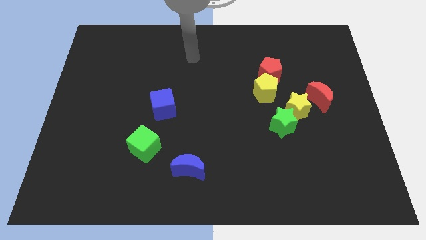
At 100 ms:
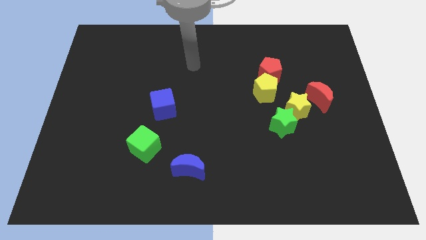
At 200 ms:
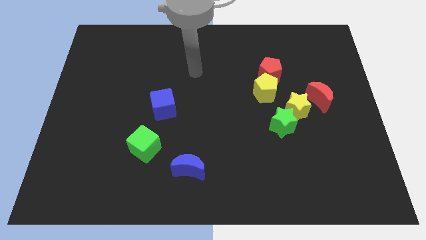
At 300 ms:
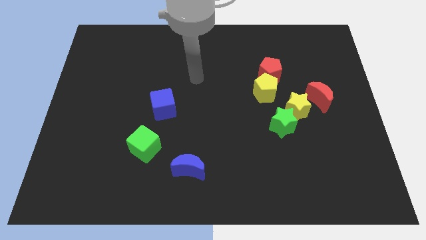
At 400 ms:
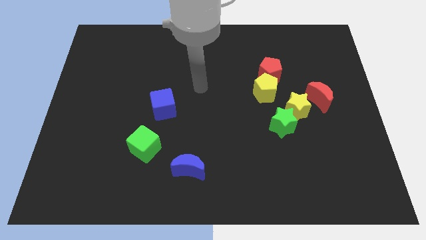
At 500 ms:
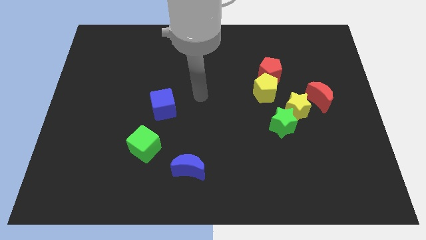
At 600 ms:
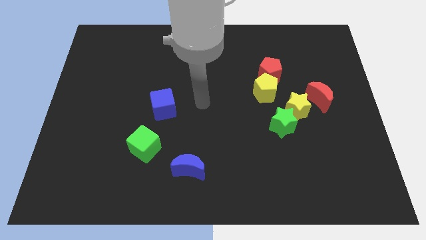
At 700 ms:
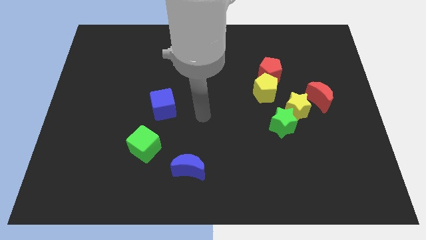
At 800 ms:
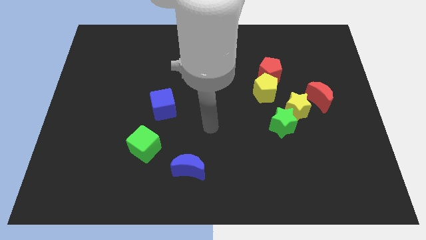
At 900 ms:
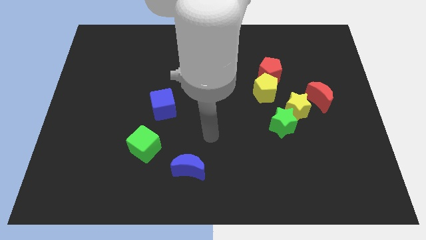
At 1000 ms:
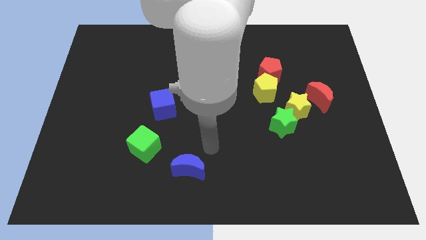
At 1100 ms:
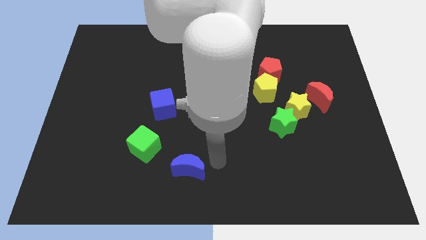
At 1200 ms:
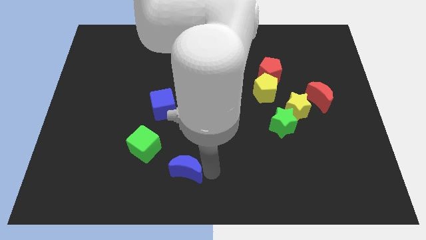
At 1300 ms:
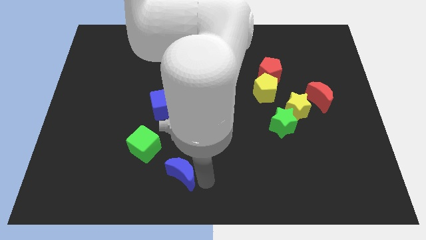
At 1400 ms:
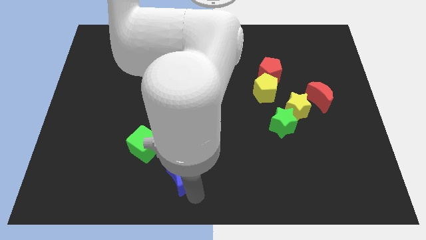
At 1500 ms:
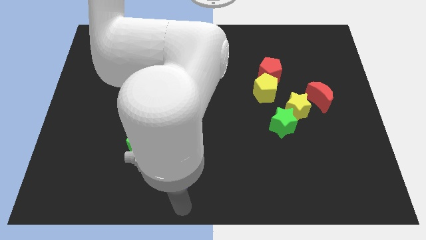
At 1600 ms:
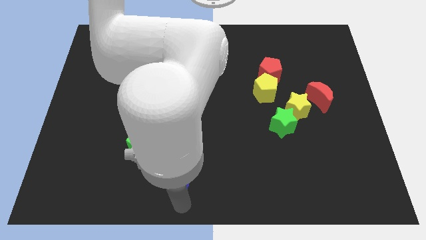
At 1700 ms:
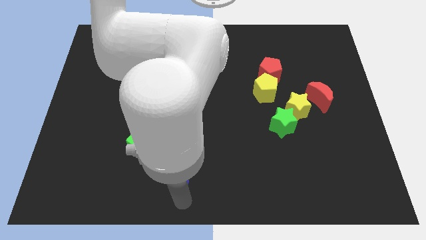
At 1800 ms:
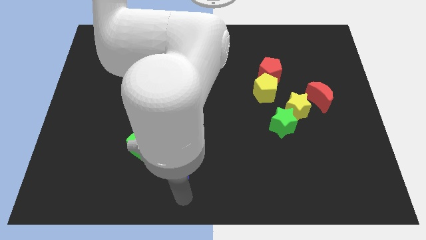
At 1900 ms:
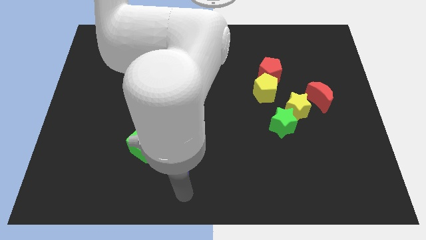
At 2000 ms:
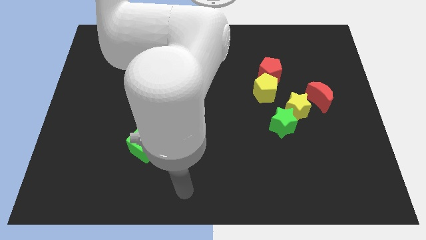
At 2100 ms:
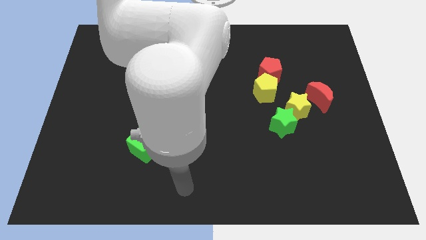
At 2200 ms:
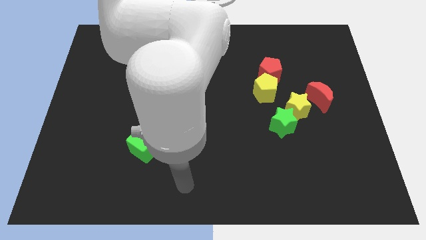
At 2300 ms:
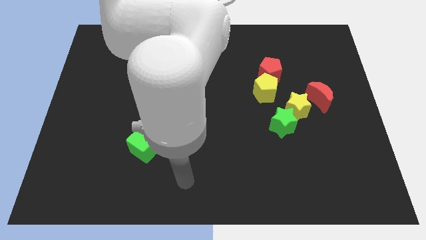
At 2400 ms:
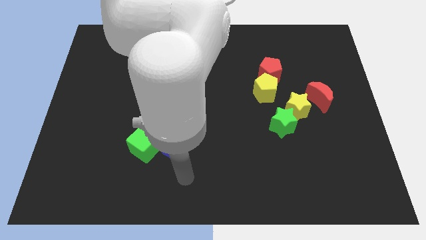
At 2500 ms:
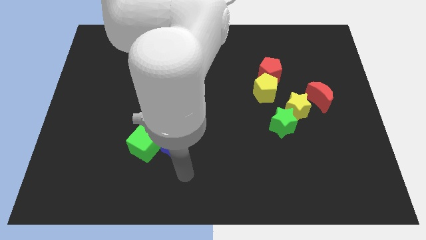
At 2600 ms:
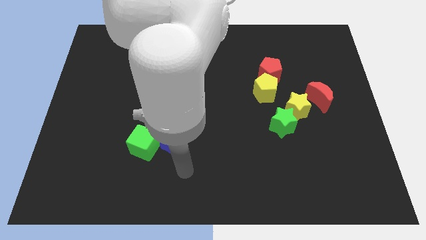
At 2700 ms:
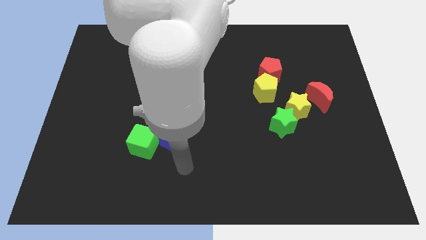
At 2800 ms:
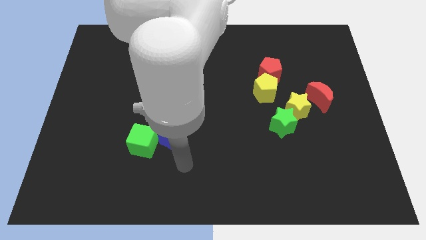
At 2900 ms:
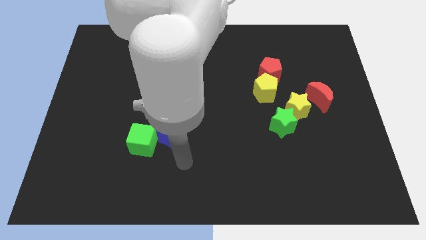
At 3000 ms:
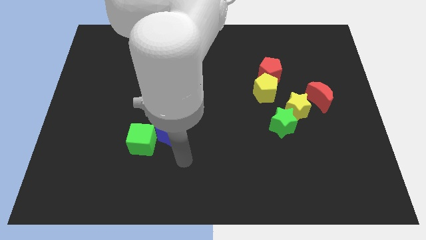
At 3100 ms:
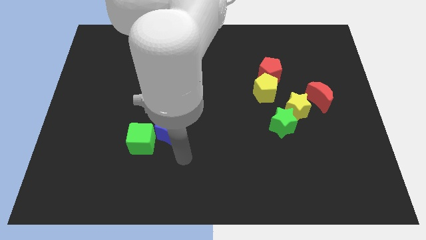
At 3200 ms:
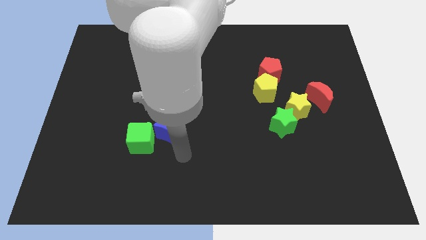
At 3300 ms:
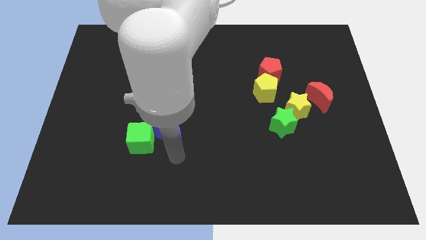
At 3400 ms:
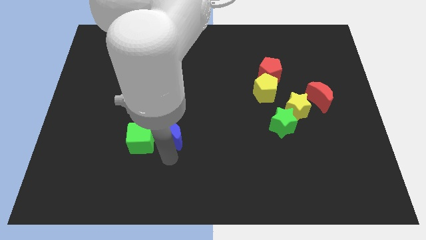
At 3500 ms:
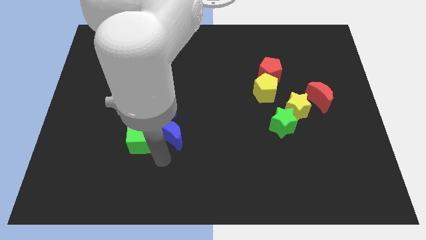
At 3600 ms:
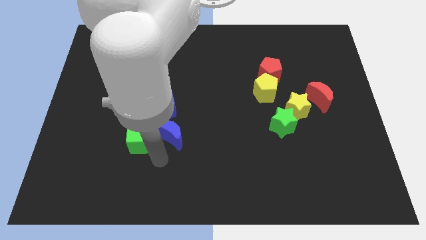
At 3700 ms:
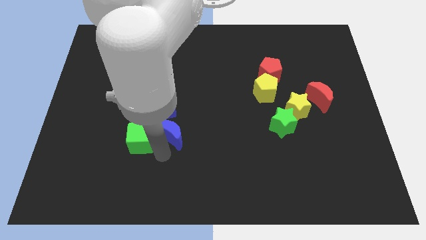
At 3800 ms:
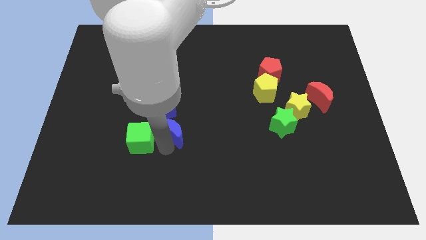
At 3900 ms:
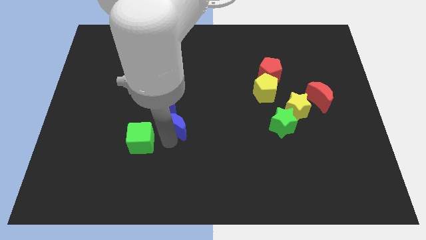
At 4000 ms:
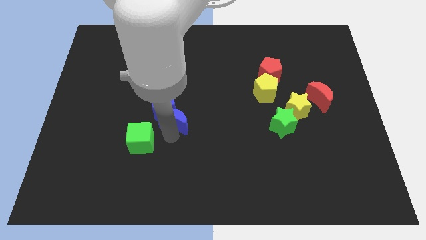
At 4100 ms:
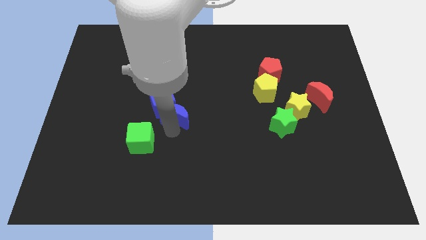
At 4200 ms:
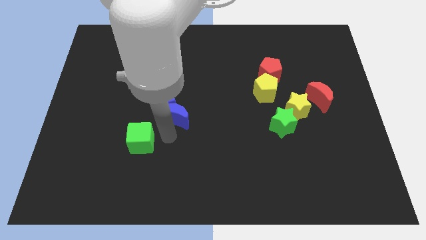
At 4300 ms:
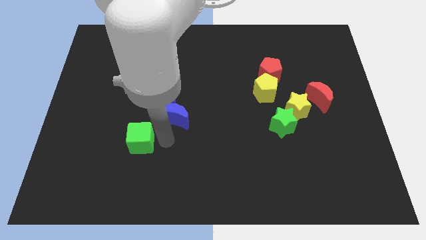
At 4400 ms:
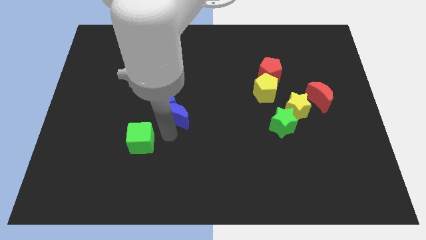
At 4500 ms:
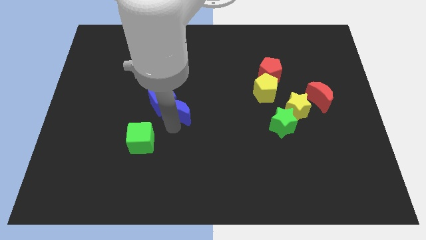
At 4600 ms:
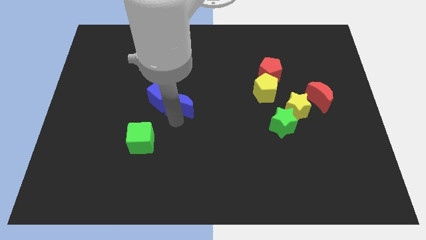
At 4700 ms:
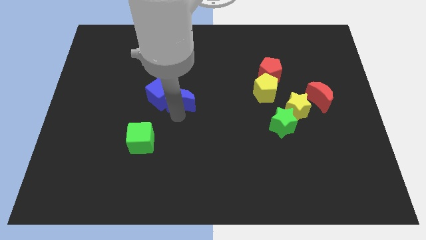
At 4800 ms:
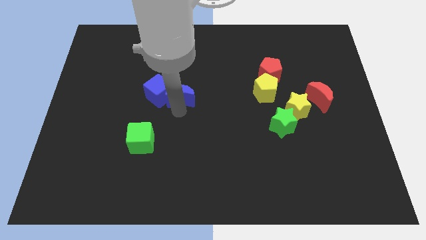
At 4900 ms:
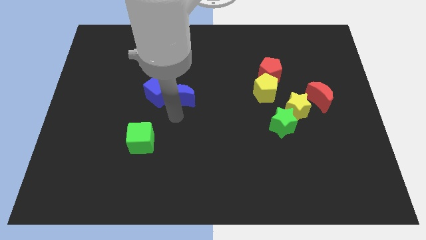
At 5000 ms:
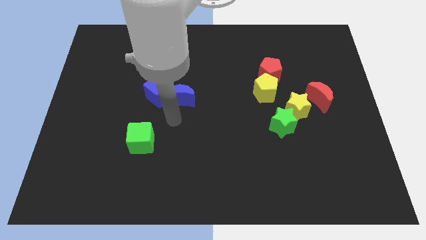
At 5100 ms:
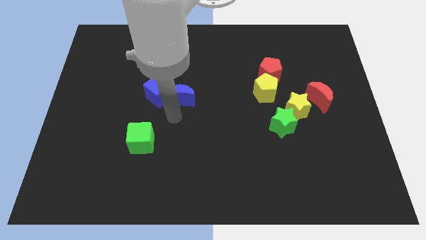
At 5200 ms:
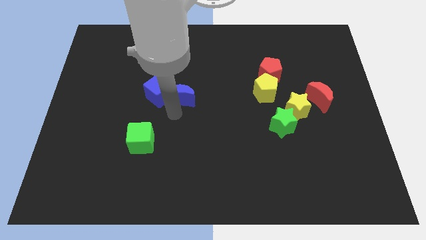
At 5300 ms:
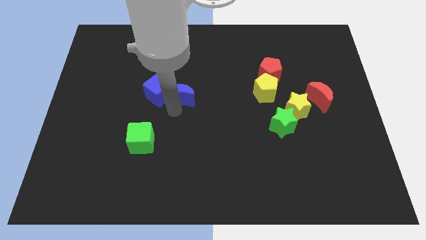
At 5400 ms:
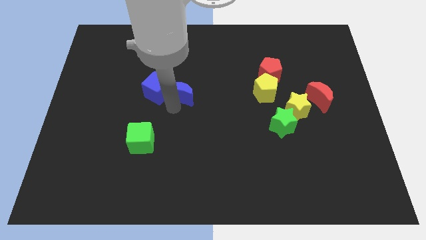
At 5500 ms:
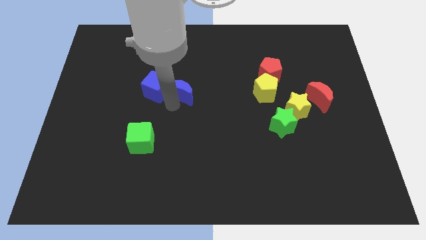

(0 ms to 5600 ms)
move the blue moon up

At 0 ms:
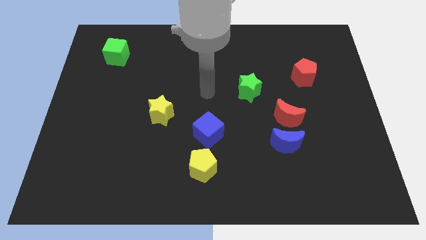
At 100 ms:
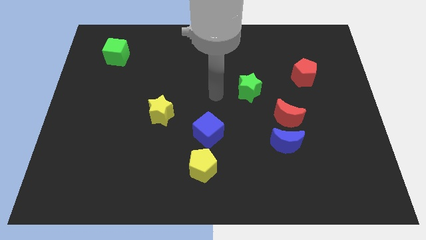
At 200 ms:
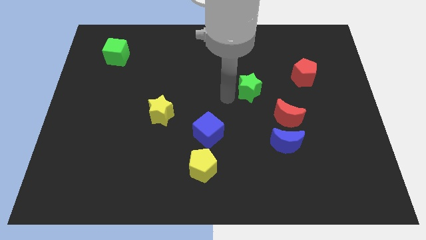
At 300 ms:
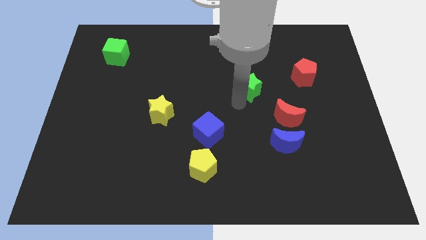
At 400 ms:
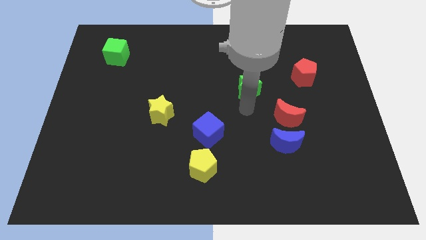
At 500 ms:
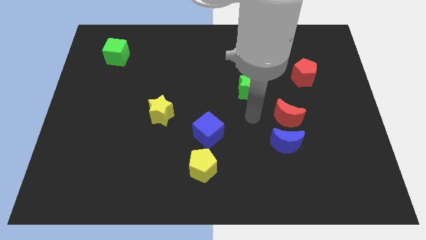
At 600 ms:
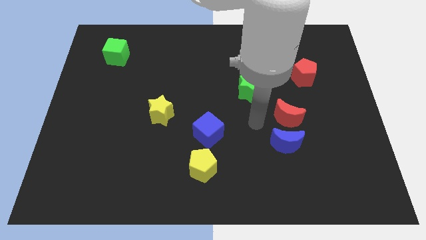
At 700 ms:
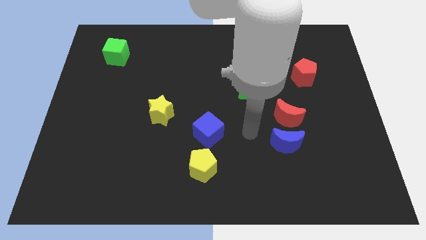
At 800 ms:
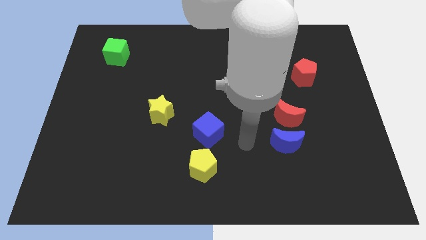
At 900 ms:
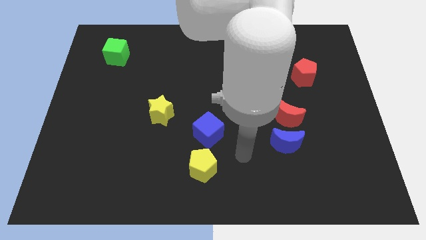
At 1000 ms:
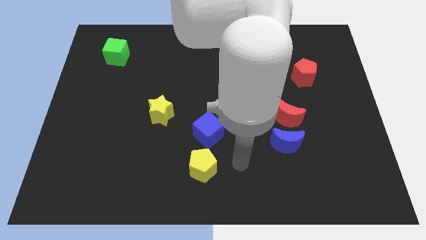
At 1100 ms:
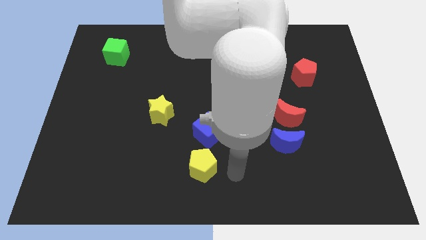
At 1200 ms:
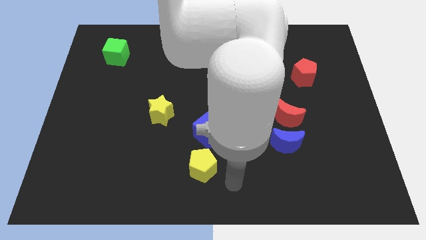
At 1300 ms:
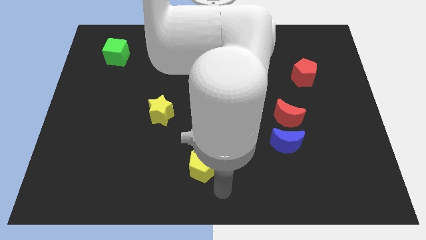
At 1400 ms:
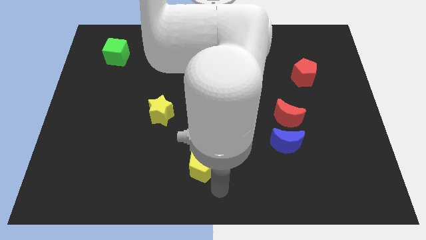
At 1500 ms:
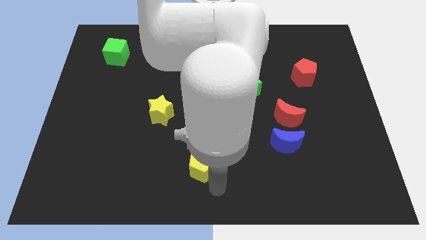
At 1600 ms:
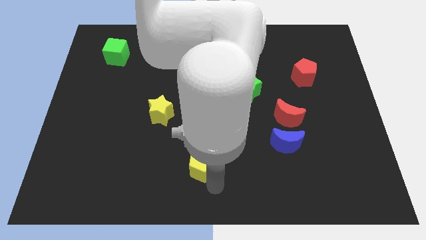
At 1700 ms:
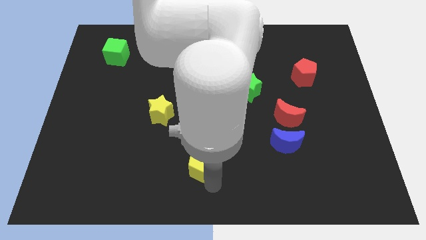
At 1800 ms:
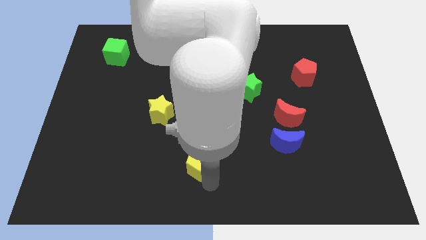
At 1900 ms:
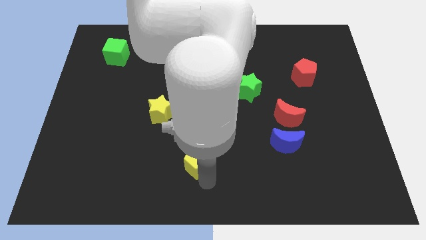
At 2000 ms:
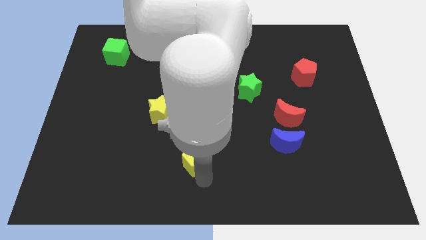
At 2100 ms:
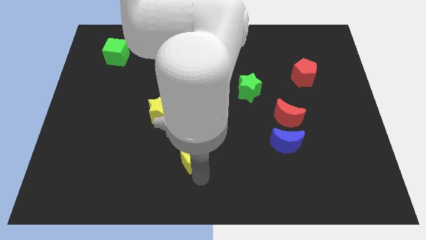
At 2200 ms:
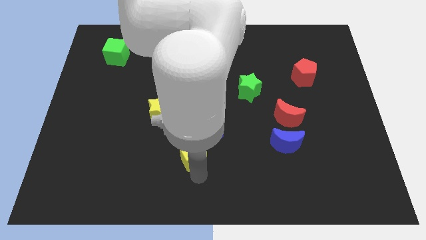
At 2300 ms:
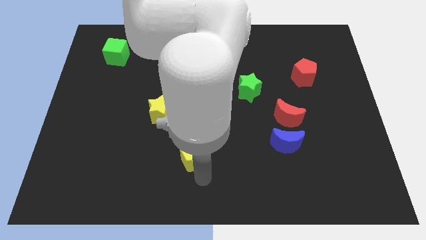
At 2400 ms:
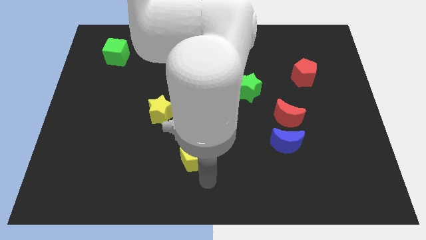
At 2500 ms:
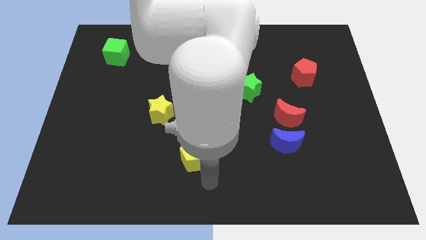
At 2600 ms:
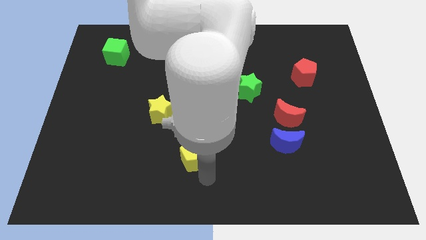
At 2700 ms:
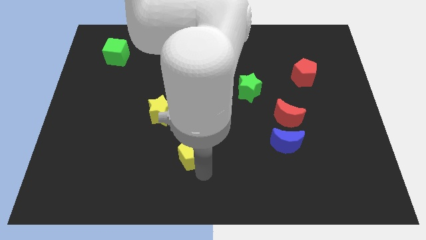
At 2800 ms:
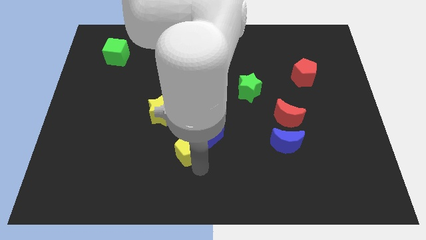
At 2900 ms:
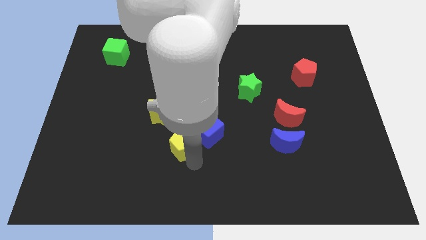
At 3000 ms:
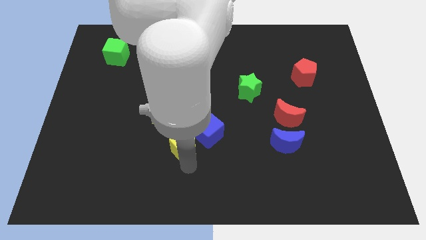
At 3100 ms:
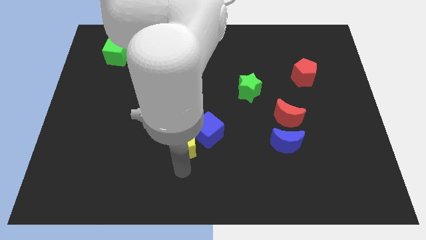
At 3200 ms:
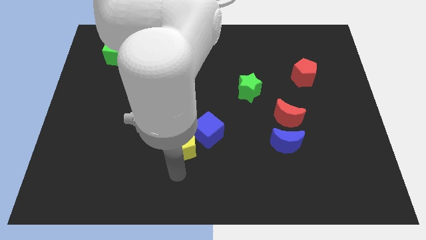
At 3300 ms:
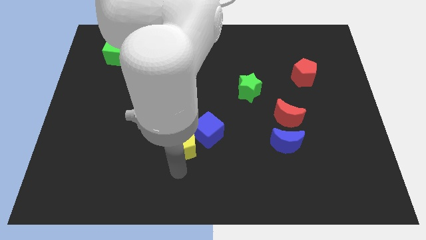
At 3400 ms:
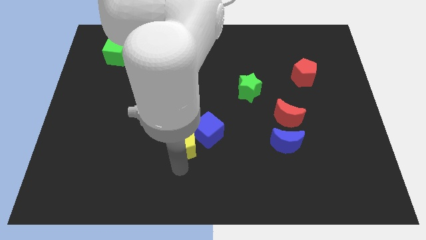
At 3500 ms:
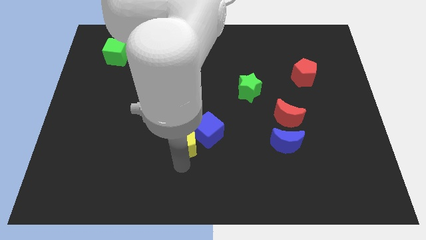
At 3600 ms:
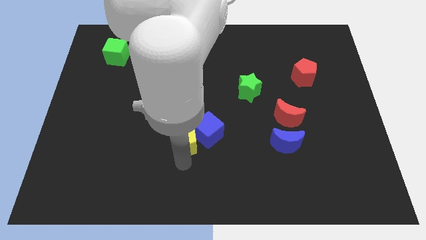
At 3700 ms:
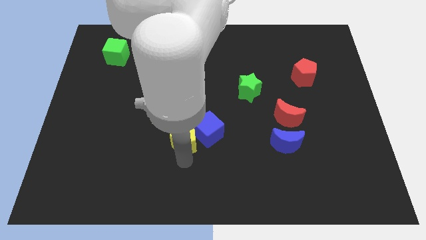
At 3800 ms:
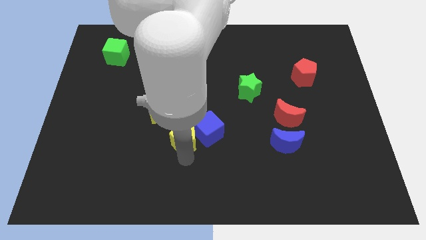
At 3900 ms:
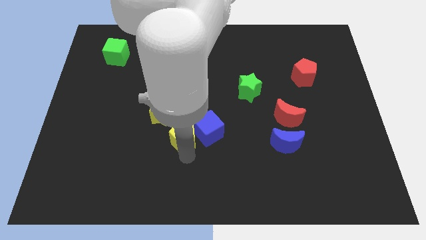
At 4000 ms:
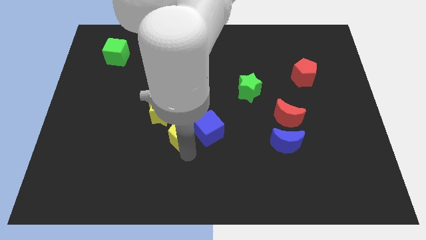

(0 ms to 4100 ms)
slightly slide the yellow pentagon up
